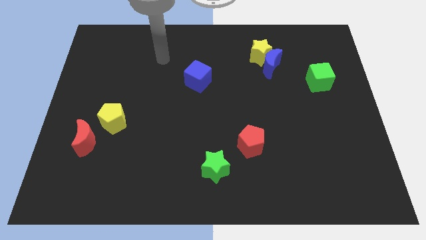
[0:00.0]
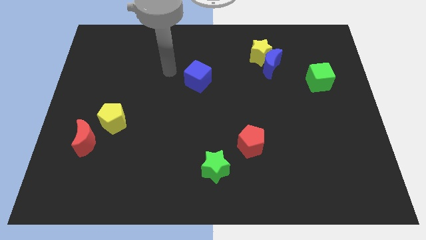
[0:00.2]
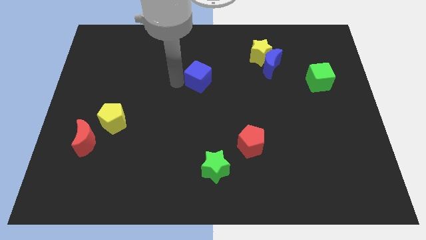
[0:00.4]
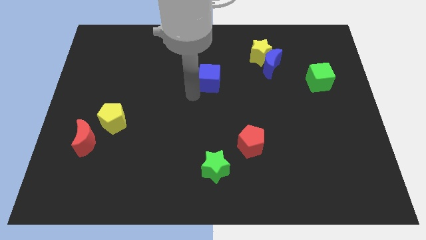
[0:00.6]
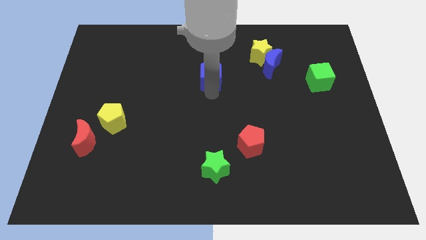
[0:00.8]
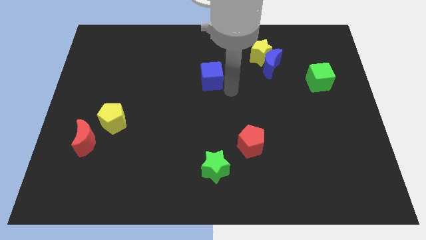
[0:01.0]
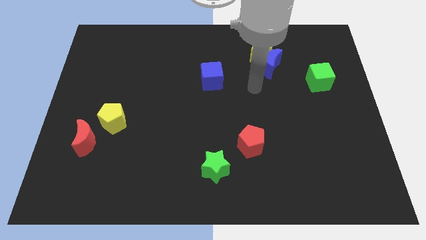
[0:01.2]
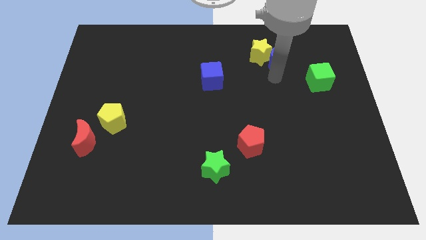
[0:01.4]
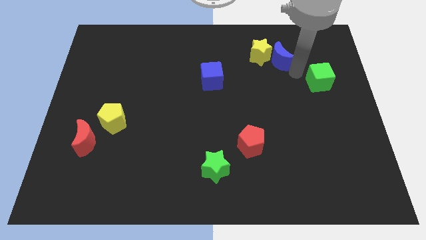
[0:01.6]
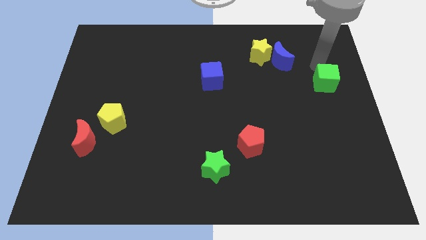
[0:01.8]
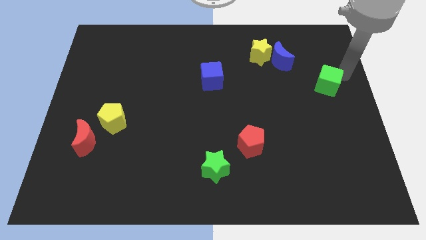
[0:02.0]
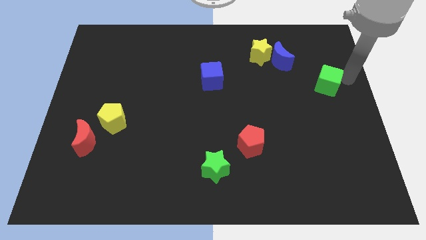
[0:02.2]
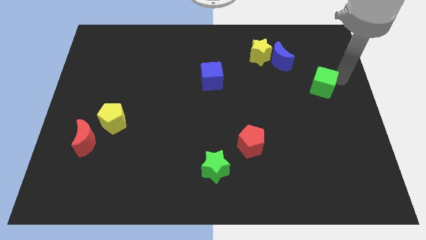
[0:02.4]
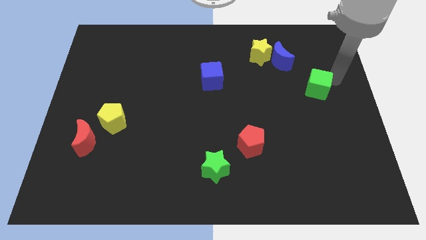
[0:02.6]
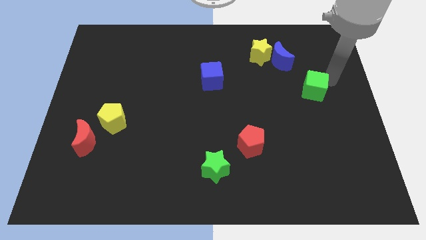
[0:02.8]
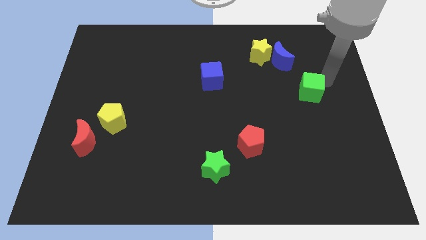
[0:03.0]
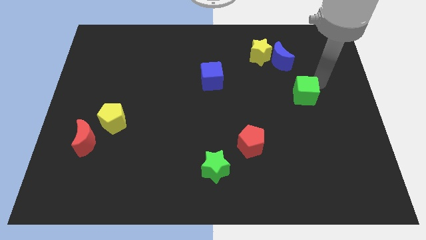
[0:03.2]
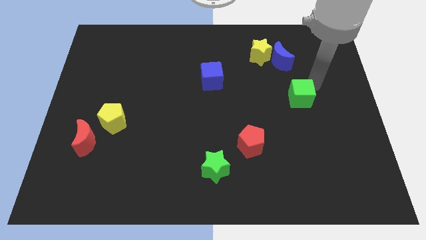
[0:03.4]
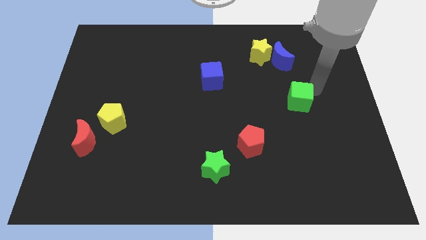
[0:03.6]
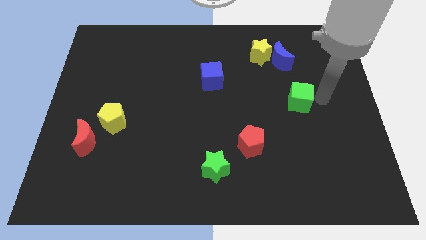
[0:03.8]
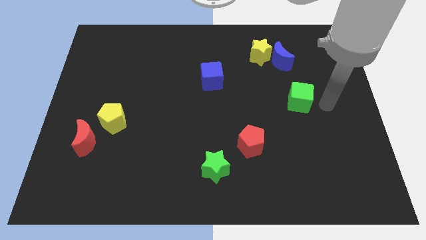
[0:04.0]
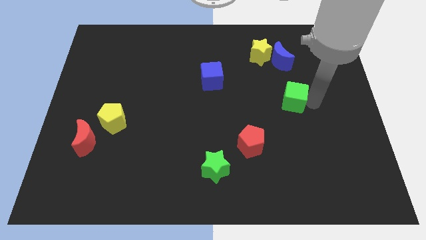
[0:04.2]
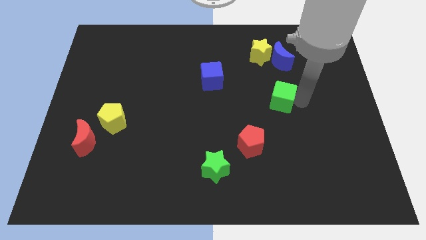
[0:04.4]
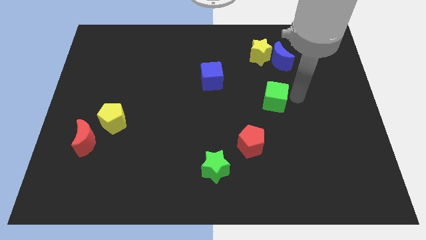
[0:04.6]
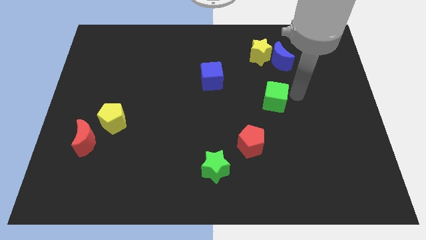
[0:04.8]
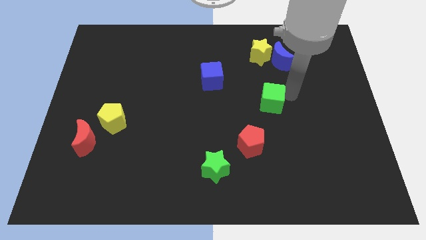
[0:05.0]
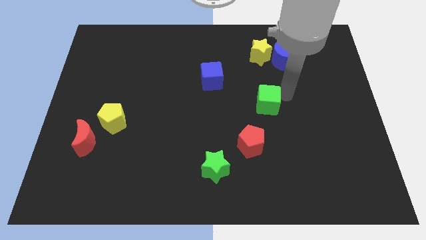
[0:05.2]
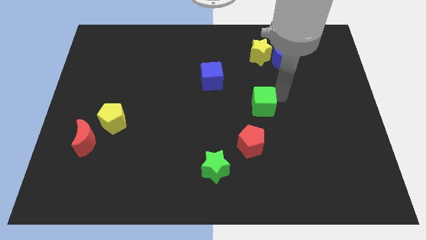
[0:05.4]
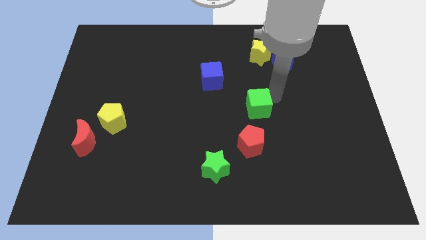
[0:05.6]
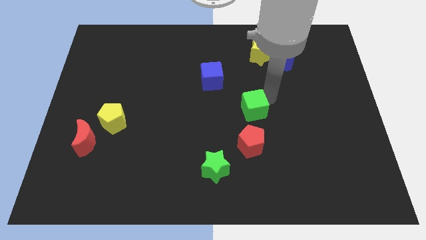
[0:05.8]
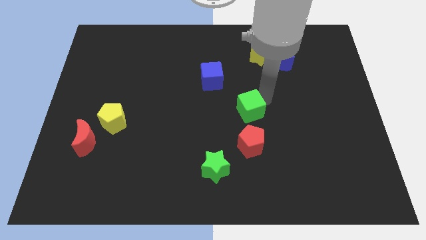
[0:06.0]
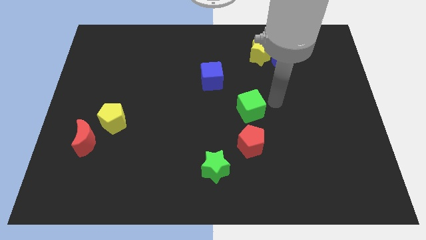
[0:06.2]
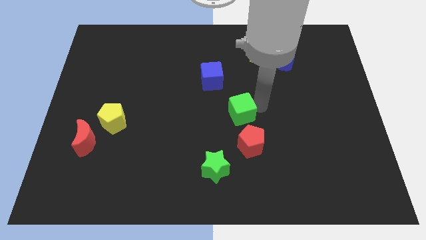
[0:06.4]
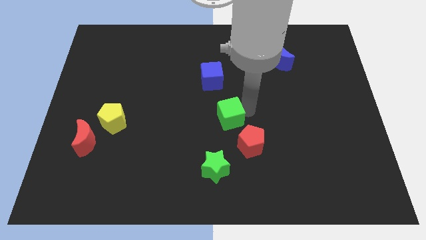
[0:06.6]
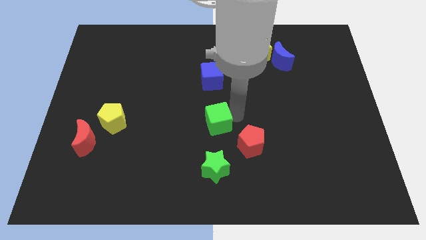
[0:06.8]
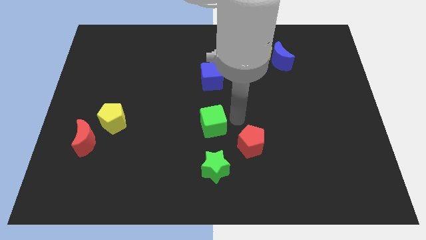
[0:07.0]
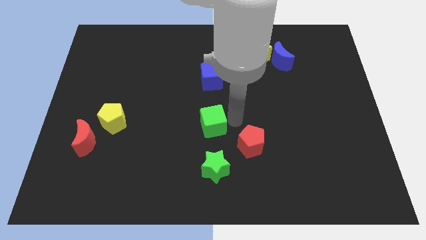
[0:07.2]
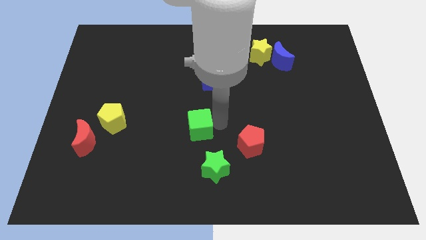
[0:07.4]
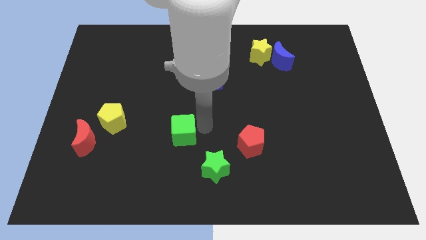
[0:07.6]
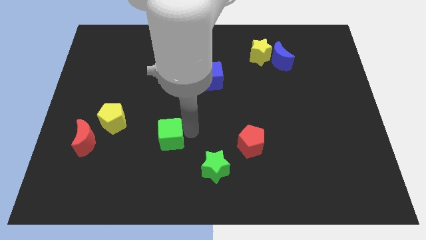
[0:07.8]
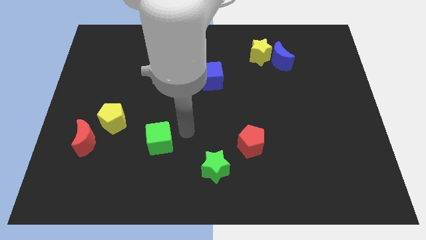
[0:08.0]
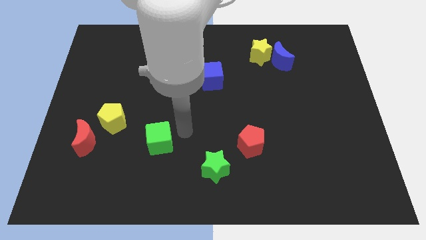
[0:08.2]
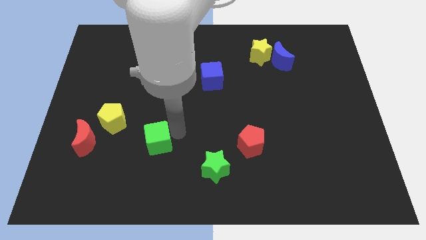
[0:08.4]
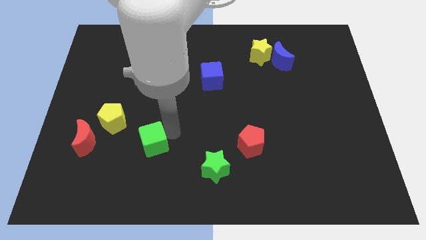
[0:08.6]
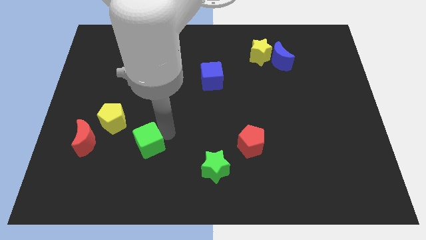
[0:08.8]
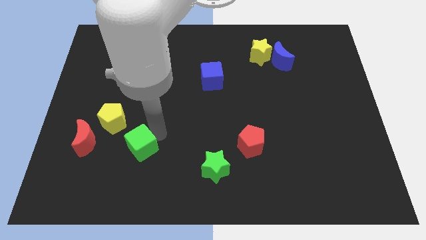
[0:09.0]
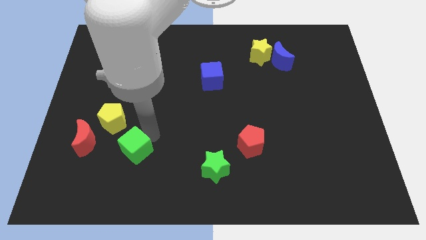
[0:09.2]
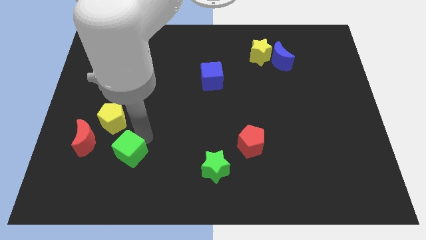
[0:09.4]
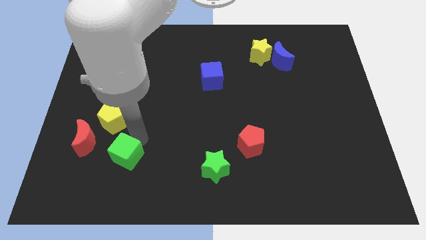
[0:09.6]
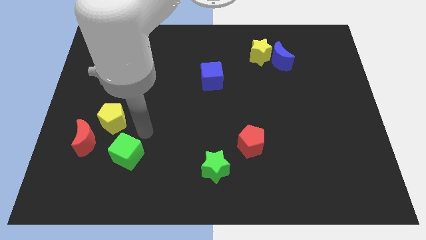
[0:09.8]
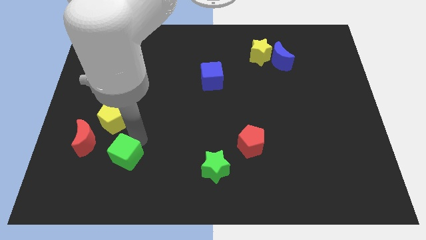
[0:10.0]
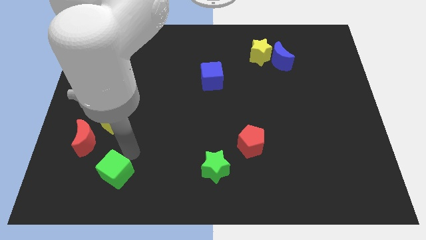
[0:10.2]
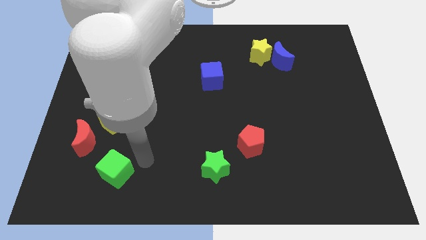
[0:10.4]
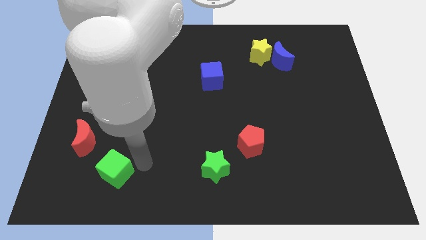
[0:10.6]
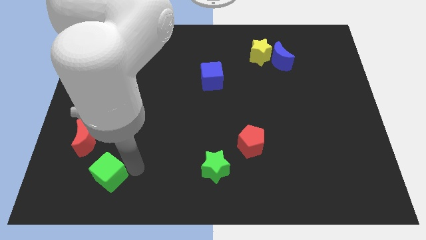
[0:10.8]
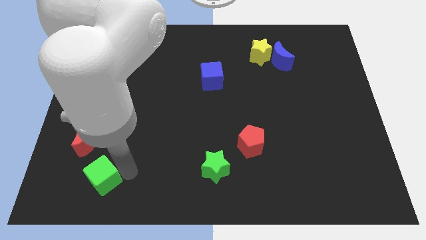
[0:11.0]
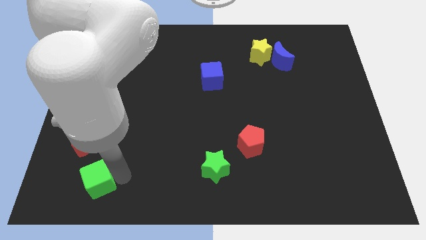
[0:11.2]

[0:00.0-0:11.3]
move the green cube to the bottom of the red moon

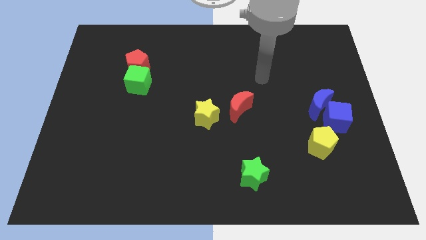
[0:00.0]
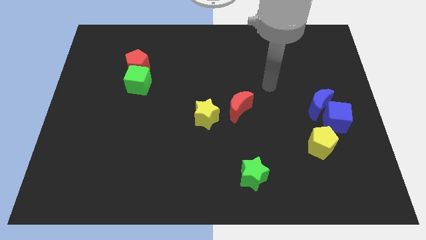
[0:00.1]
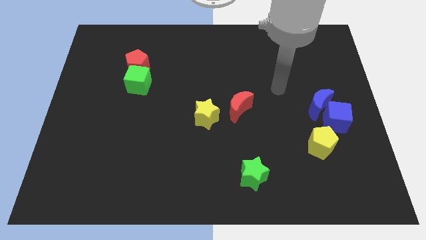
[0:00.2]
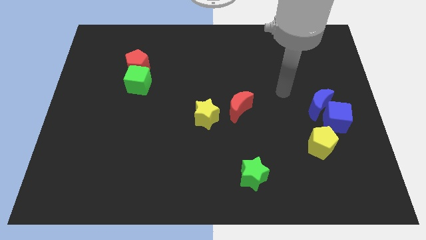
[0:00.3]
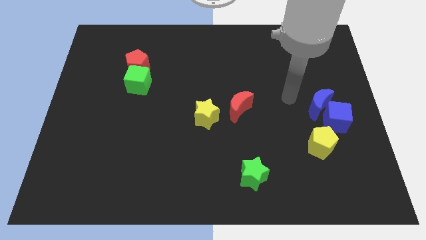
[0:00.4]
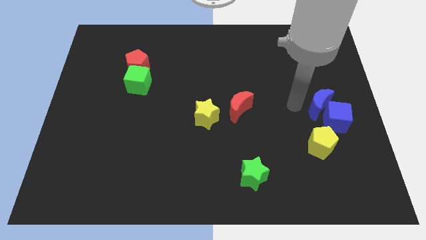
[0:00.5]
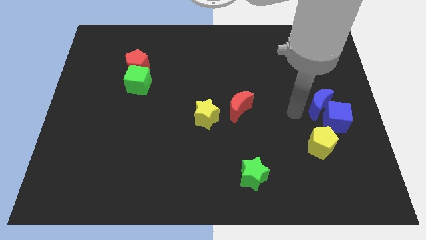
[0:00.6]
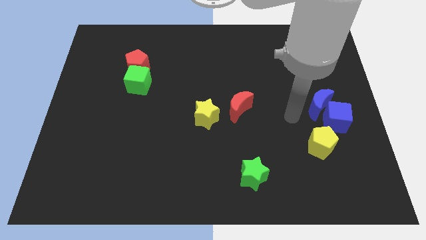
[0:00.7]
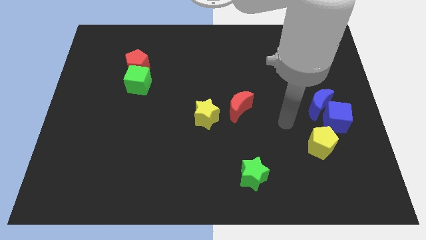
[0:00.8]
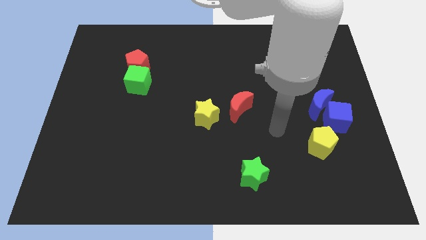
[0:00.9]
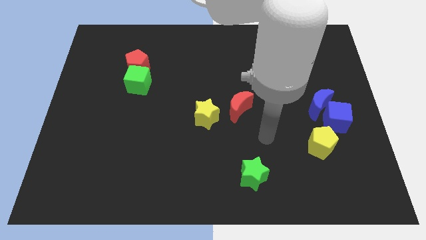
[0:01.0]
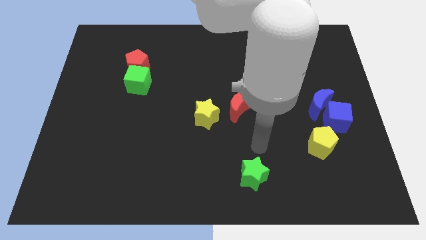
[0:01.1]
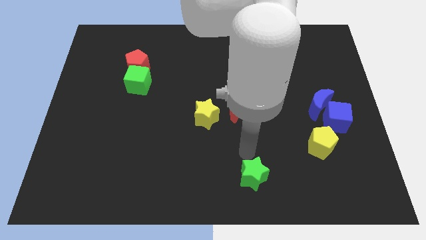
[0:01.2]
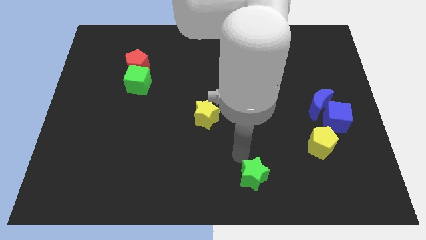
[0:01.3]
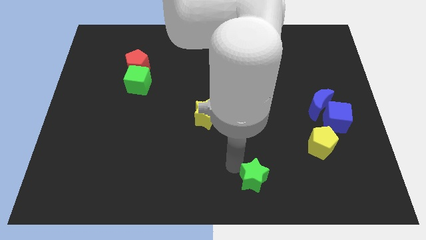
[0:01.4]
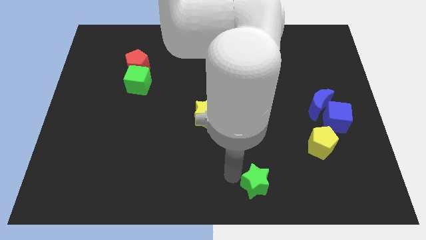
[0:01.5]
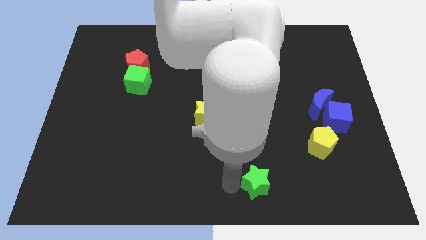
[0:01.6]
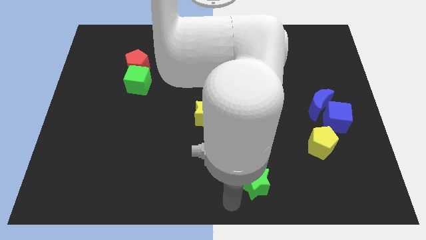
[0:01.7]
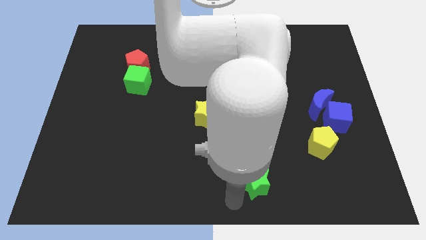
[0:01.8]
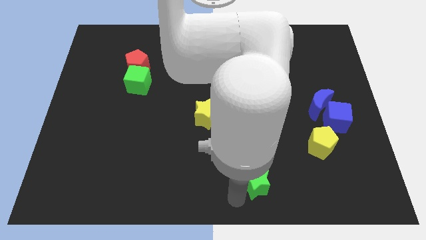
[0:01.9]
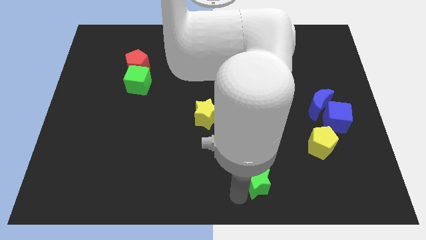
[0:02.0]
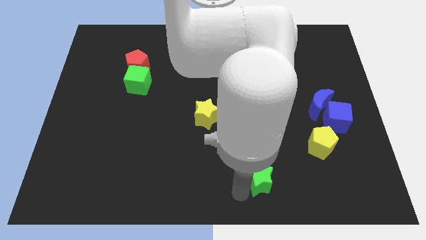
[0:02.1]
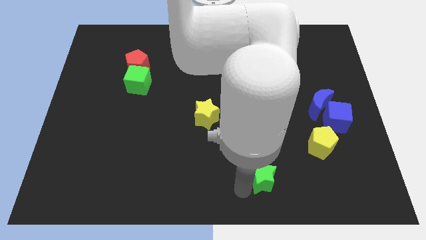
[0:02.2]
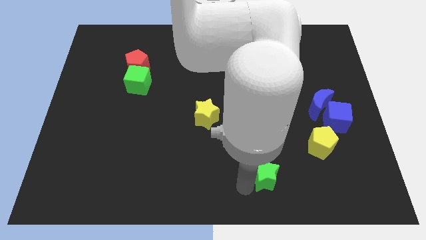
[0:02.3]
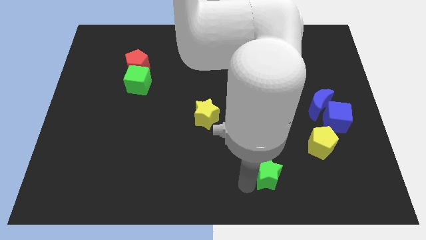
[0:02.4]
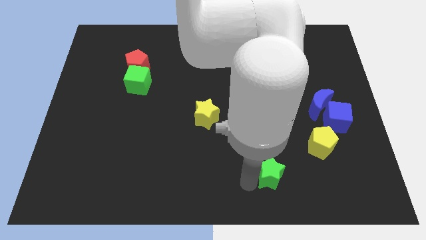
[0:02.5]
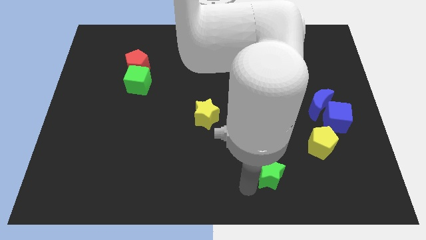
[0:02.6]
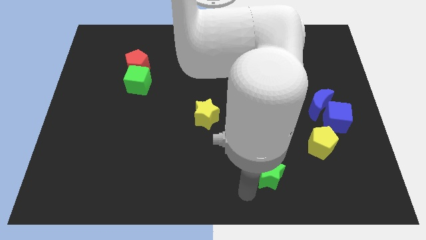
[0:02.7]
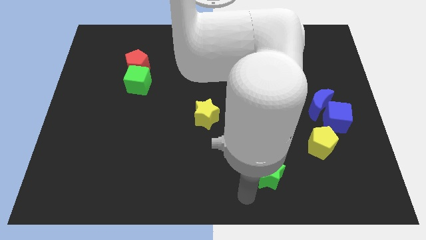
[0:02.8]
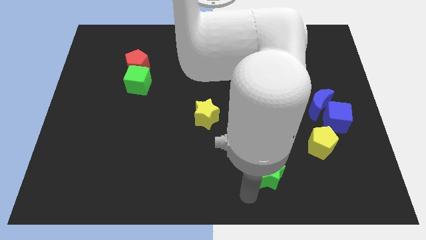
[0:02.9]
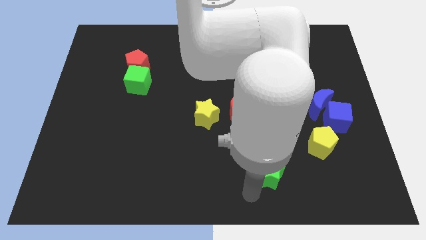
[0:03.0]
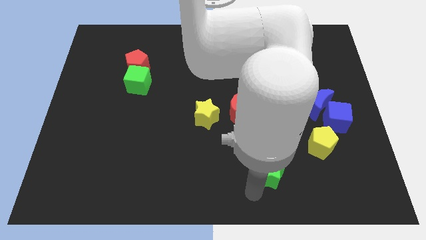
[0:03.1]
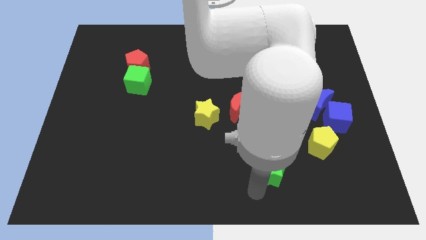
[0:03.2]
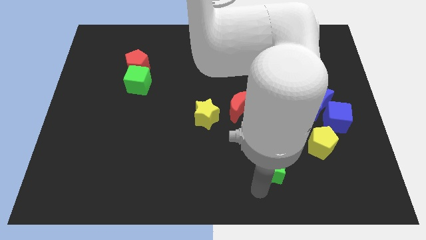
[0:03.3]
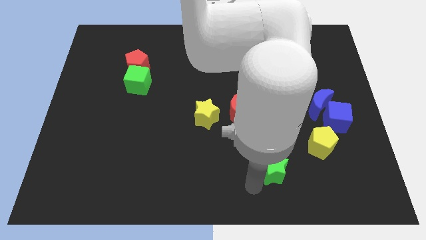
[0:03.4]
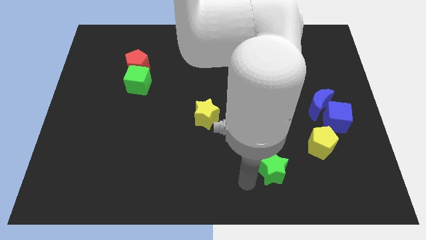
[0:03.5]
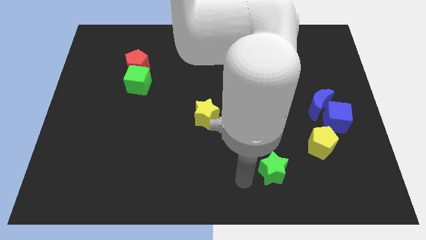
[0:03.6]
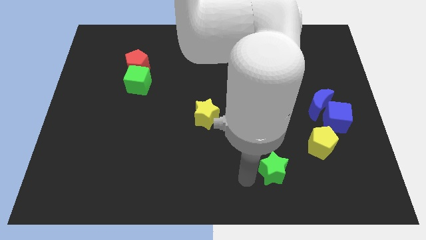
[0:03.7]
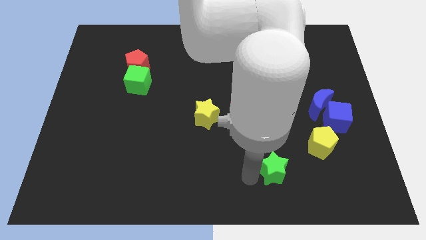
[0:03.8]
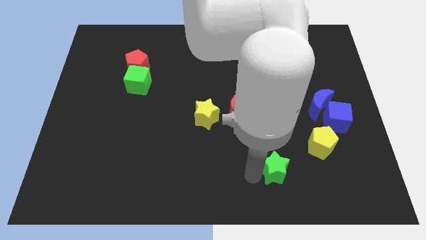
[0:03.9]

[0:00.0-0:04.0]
slide the green star diagonally down and to the left of the yellow pentagon
